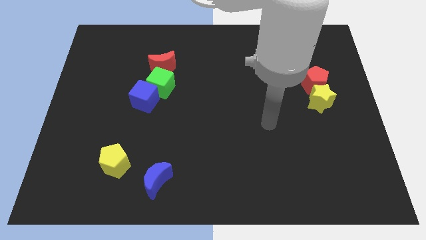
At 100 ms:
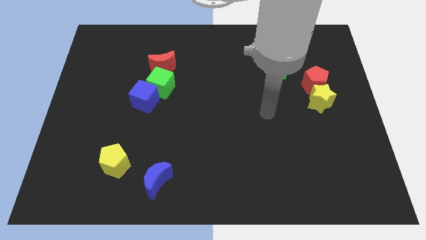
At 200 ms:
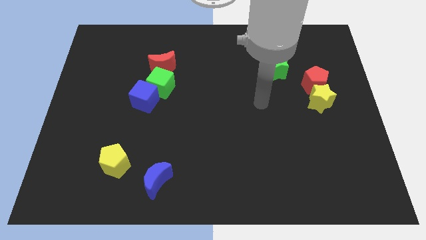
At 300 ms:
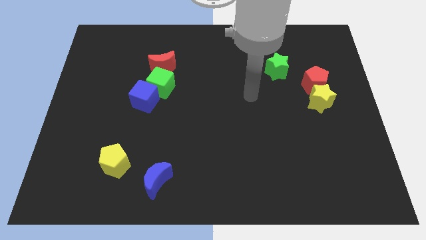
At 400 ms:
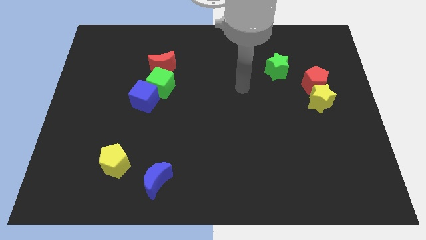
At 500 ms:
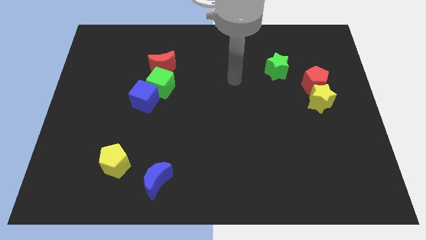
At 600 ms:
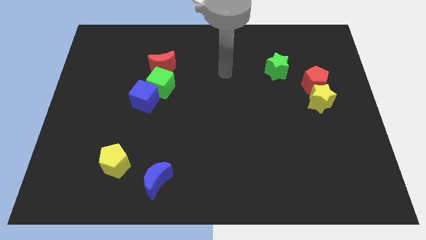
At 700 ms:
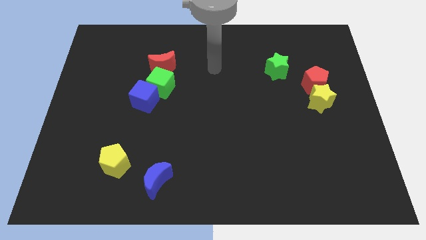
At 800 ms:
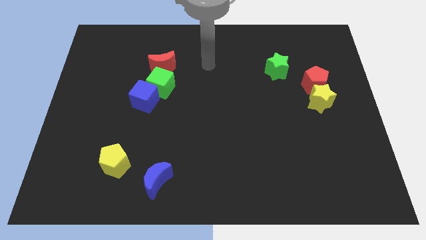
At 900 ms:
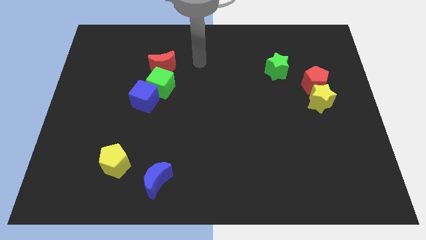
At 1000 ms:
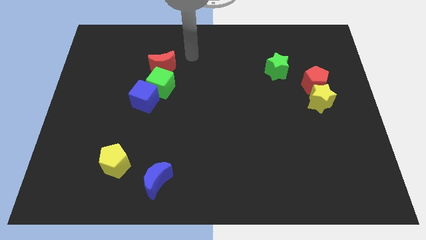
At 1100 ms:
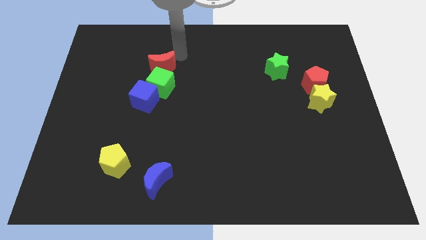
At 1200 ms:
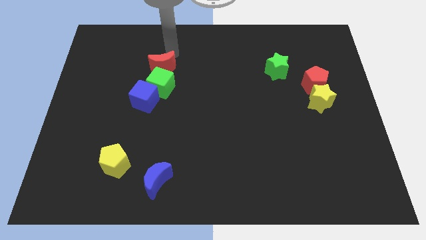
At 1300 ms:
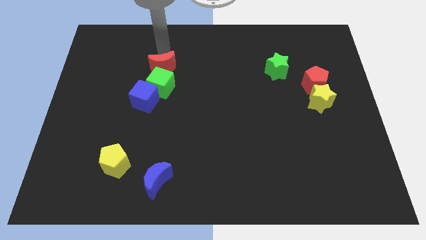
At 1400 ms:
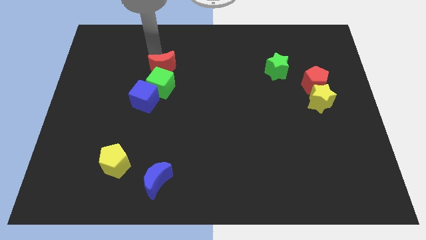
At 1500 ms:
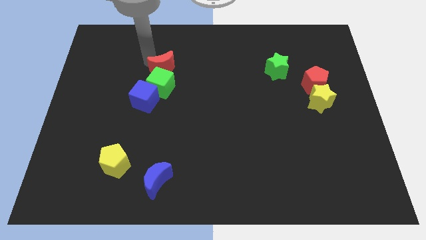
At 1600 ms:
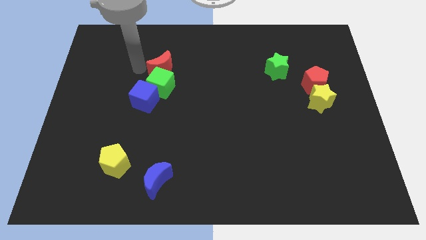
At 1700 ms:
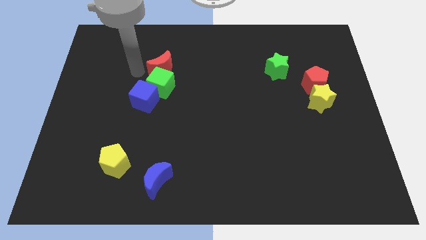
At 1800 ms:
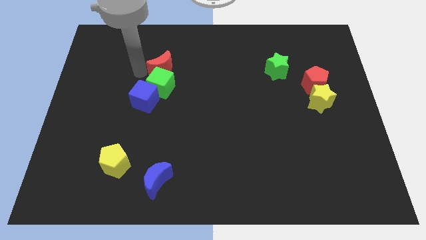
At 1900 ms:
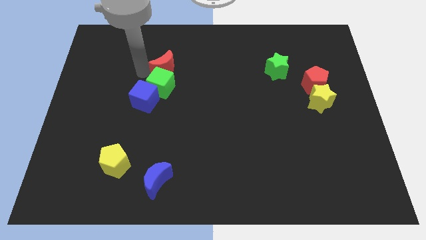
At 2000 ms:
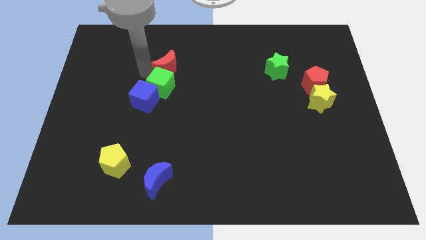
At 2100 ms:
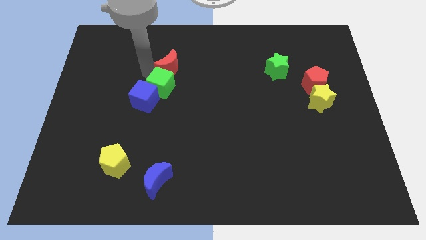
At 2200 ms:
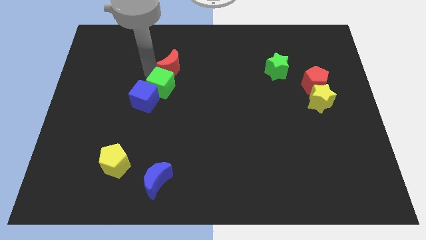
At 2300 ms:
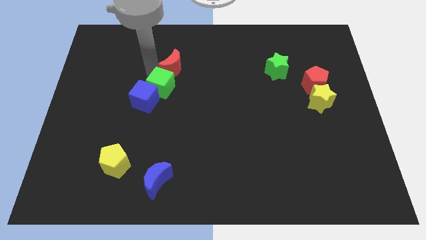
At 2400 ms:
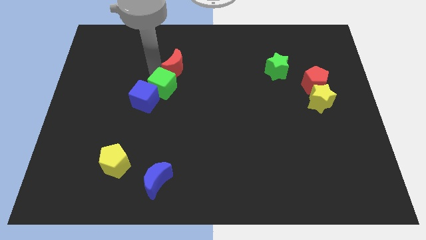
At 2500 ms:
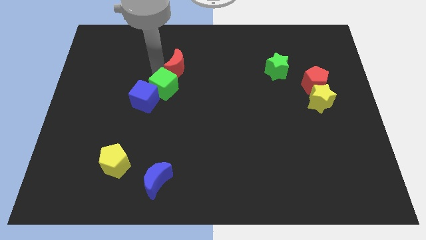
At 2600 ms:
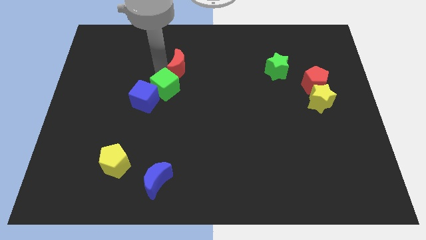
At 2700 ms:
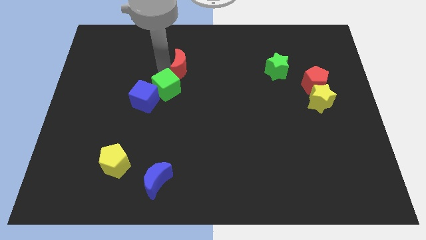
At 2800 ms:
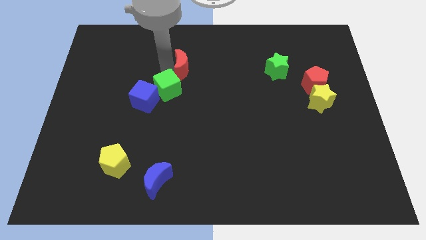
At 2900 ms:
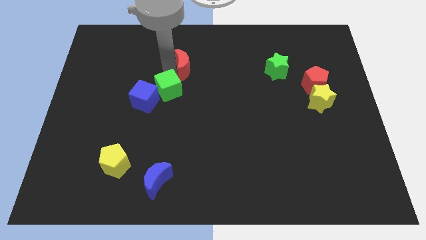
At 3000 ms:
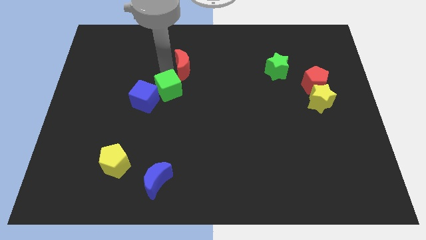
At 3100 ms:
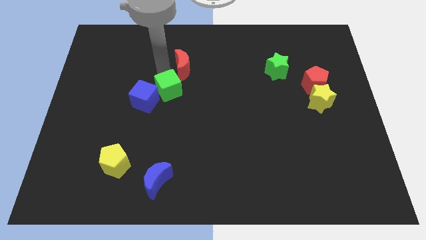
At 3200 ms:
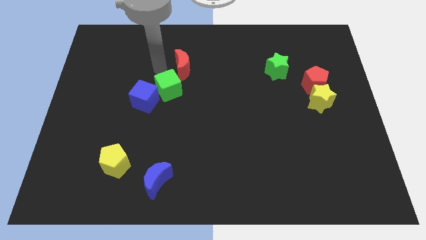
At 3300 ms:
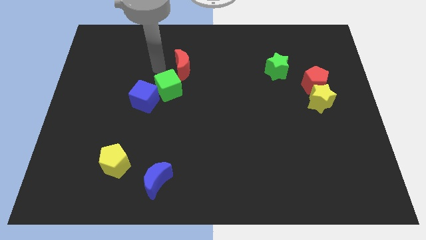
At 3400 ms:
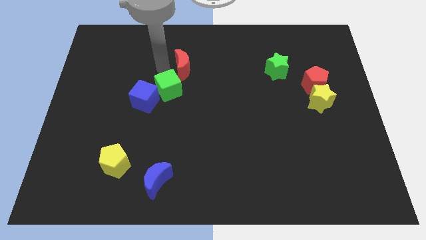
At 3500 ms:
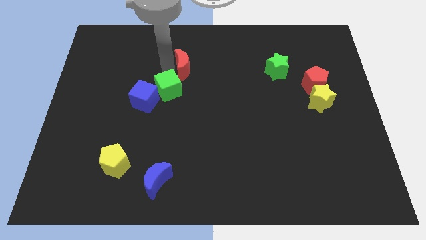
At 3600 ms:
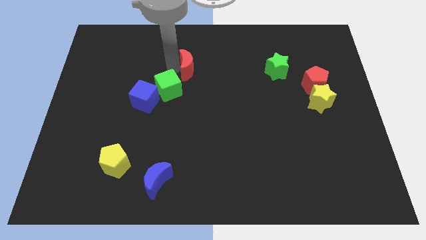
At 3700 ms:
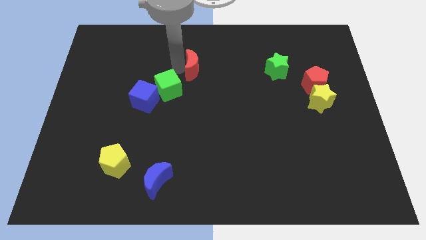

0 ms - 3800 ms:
slightly move the red moon to the right

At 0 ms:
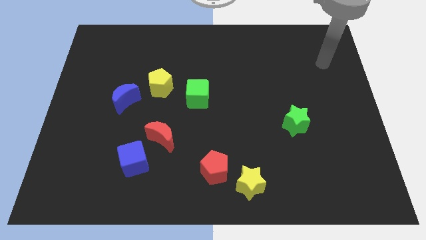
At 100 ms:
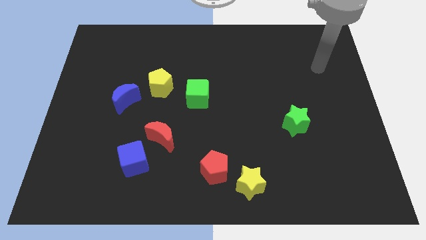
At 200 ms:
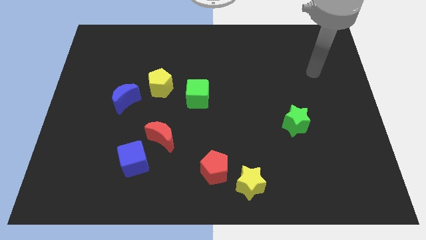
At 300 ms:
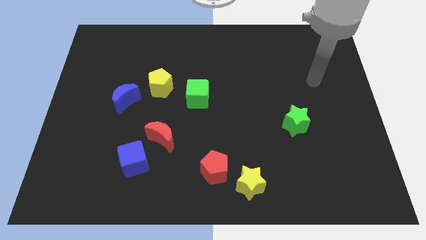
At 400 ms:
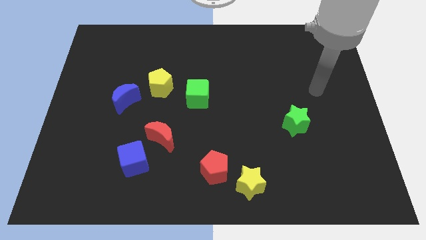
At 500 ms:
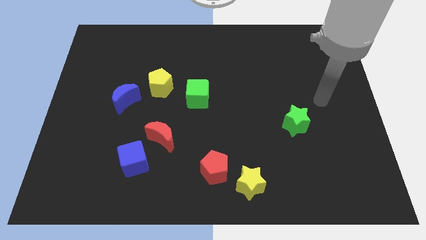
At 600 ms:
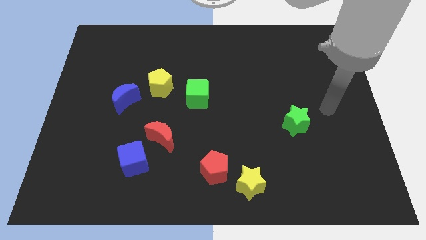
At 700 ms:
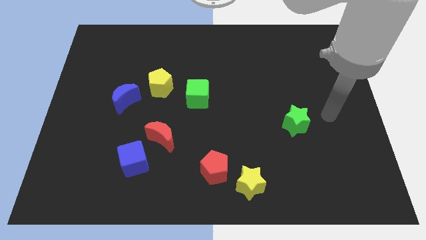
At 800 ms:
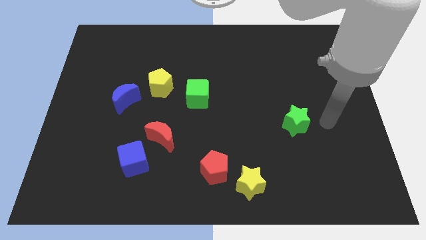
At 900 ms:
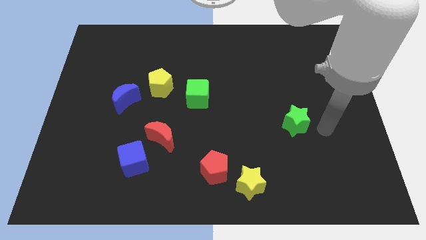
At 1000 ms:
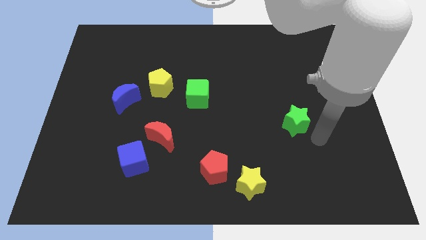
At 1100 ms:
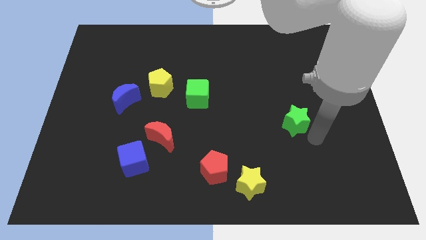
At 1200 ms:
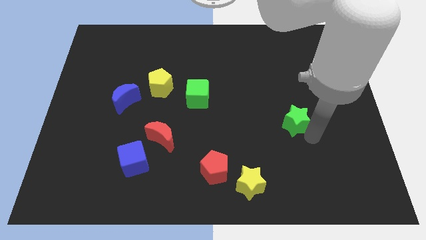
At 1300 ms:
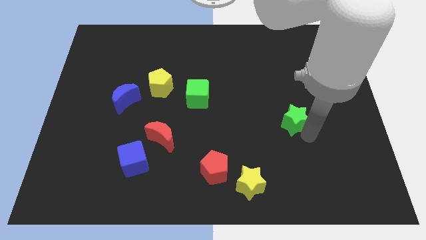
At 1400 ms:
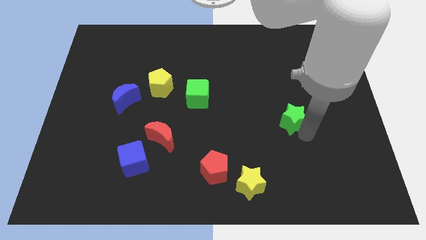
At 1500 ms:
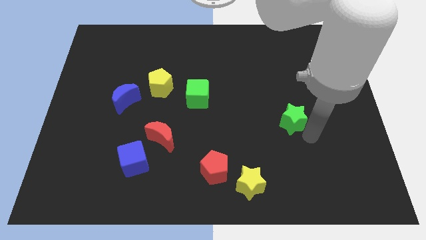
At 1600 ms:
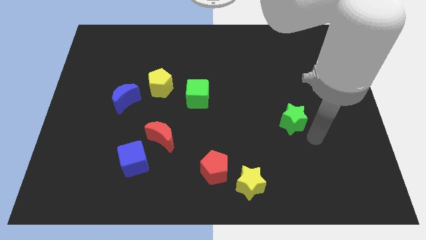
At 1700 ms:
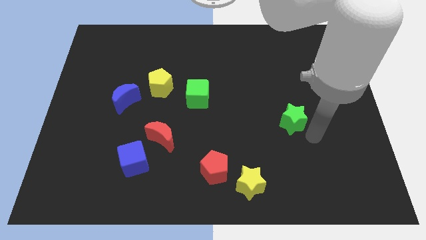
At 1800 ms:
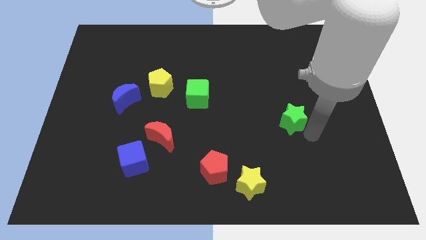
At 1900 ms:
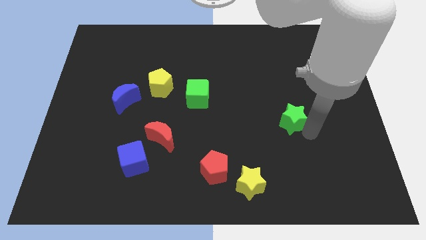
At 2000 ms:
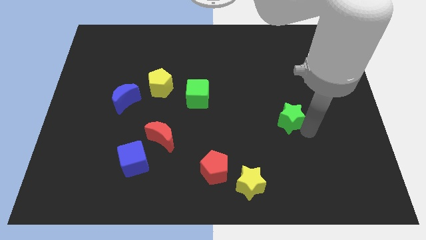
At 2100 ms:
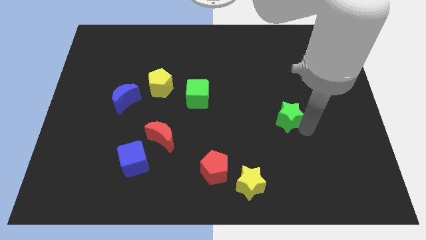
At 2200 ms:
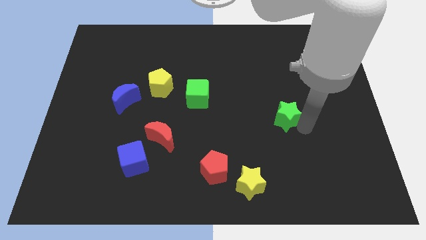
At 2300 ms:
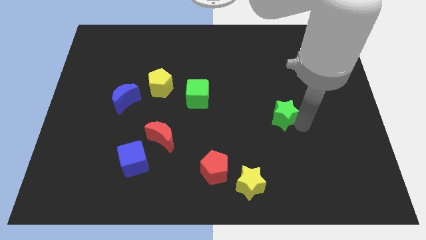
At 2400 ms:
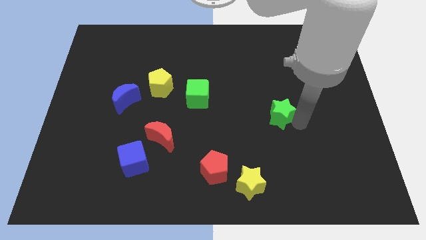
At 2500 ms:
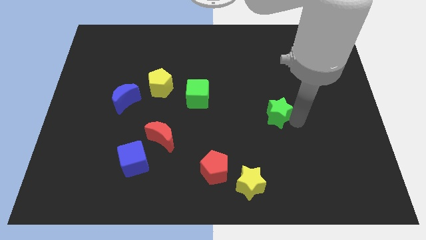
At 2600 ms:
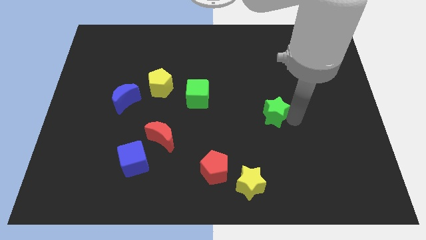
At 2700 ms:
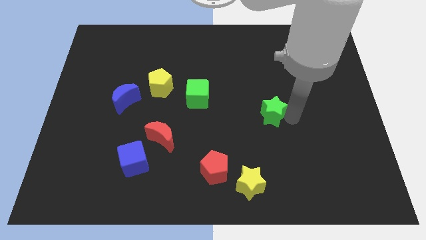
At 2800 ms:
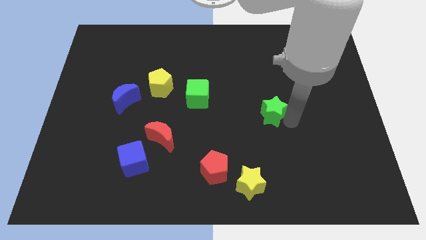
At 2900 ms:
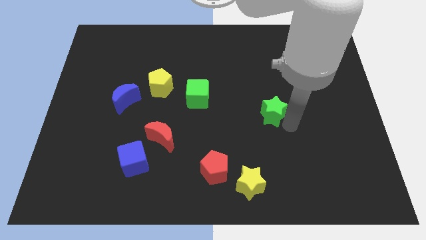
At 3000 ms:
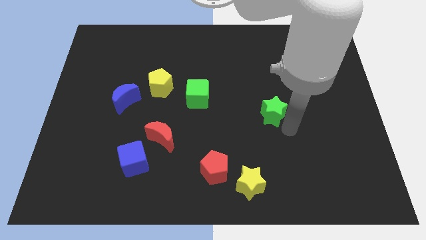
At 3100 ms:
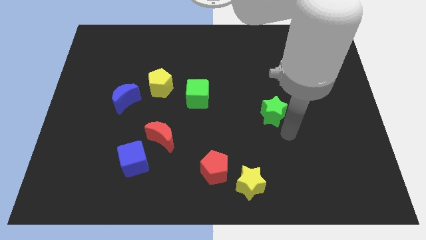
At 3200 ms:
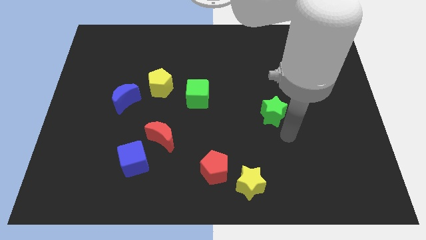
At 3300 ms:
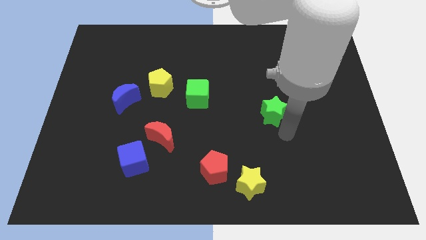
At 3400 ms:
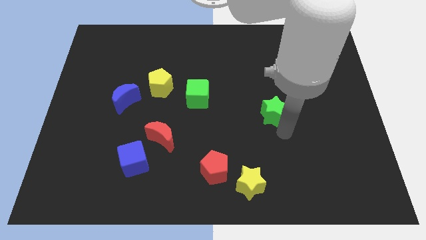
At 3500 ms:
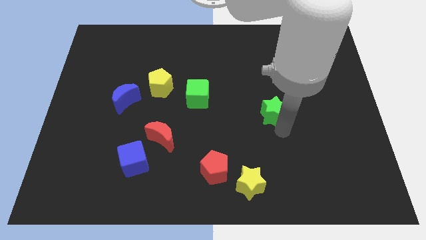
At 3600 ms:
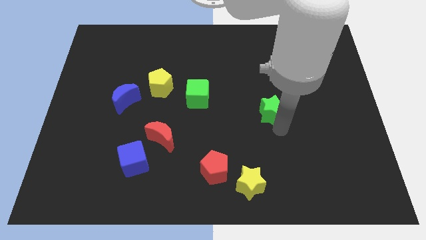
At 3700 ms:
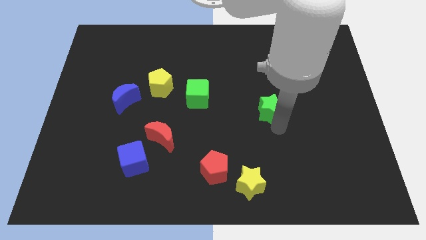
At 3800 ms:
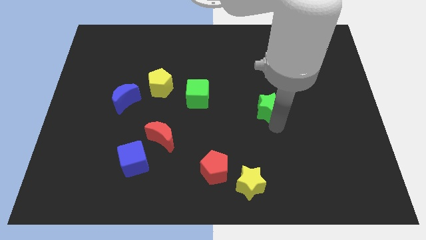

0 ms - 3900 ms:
move the green star slightly diagonally up and to the left

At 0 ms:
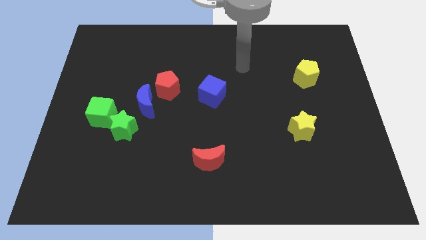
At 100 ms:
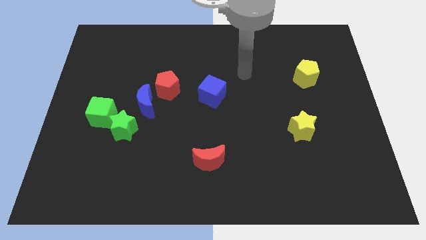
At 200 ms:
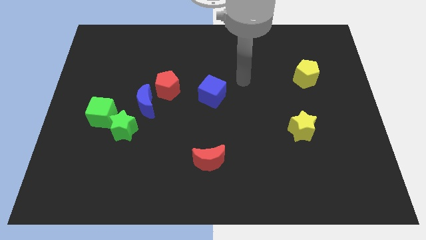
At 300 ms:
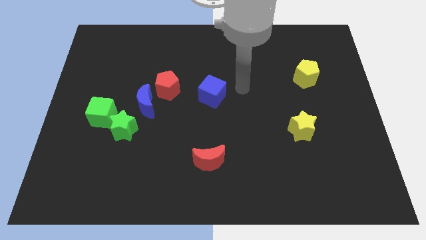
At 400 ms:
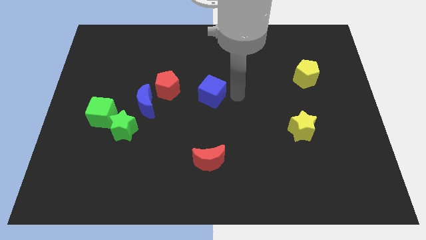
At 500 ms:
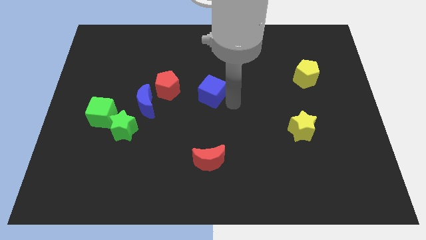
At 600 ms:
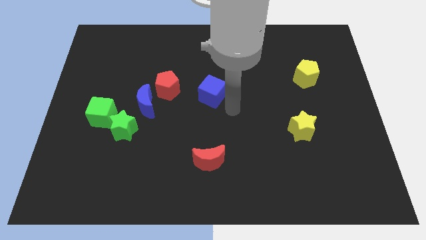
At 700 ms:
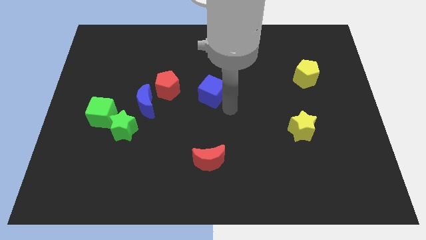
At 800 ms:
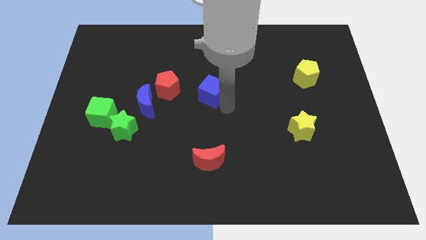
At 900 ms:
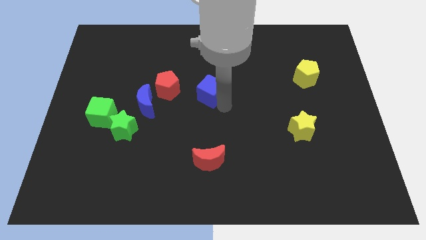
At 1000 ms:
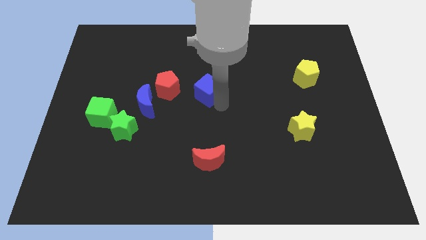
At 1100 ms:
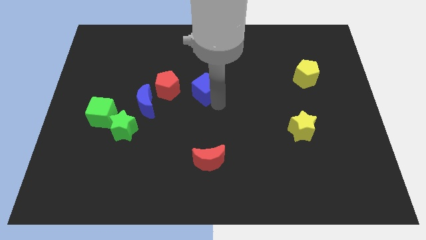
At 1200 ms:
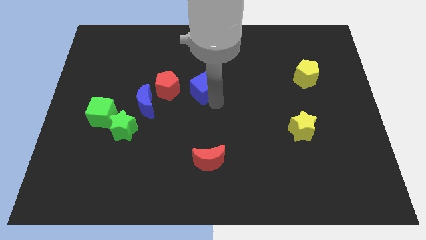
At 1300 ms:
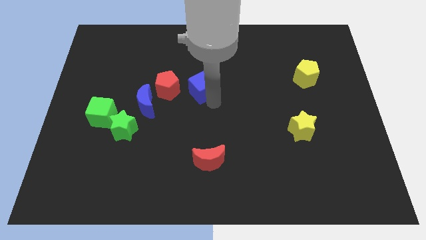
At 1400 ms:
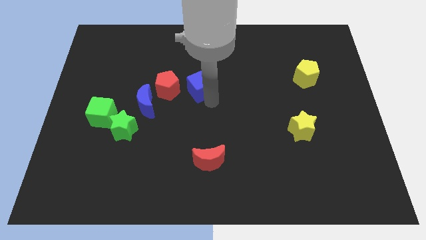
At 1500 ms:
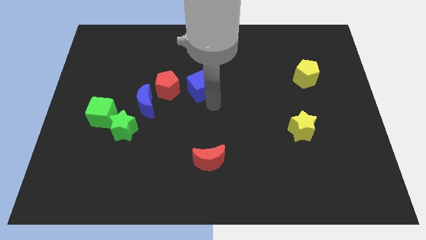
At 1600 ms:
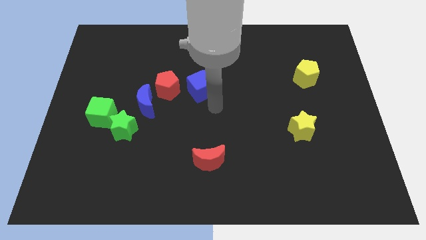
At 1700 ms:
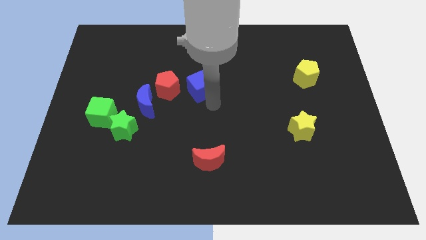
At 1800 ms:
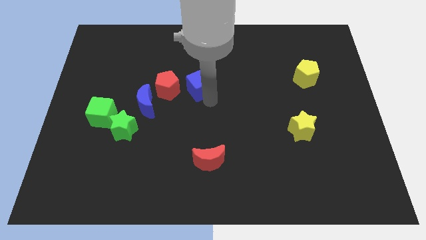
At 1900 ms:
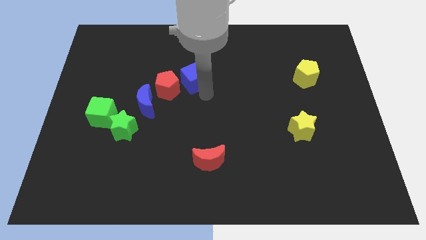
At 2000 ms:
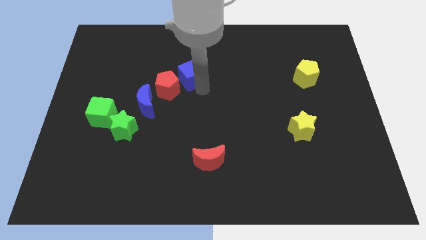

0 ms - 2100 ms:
move the blue cube diagonally upwards and left somewhat
